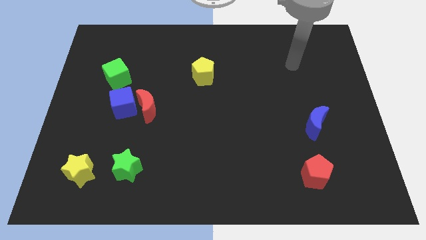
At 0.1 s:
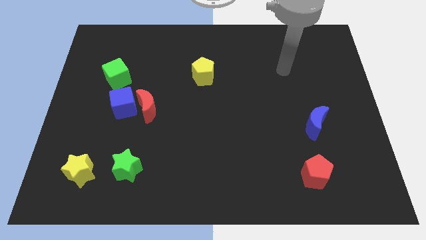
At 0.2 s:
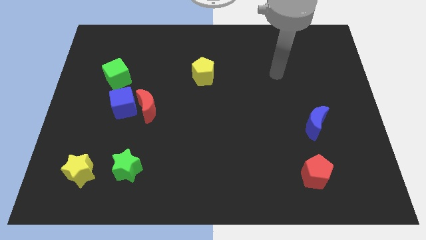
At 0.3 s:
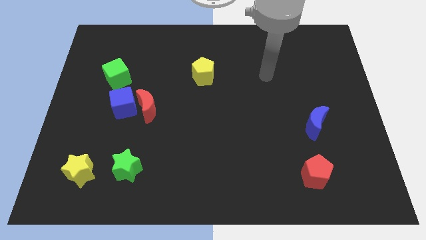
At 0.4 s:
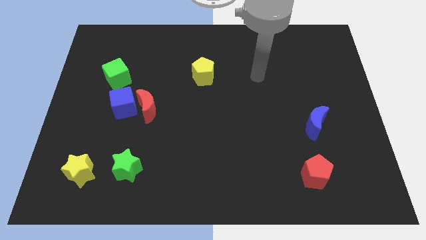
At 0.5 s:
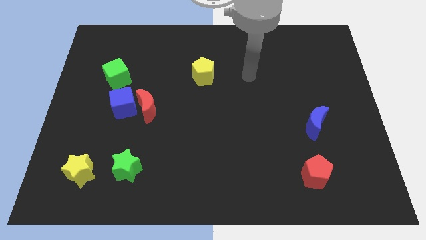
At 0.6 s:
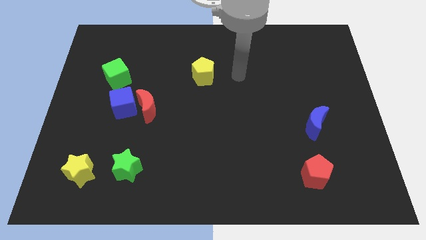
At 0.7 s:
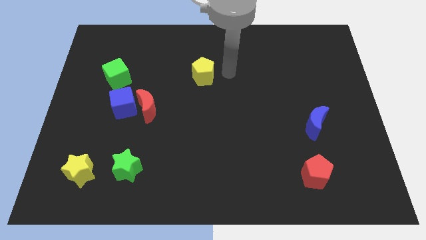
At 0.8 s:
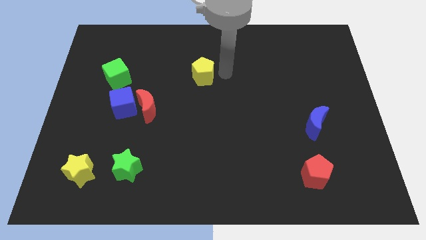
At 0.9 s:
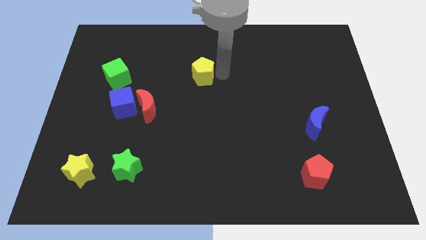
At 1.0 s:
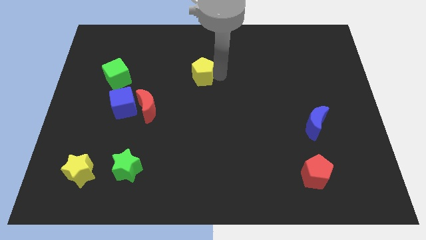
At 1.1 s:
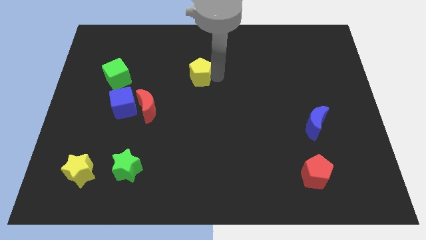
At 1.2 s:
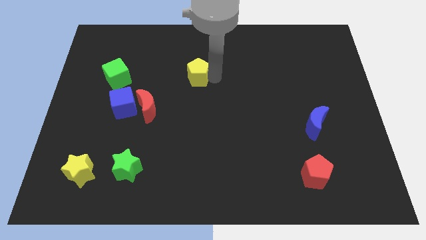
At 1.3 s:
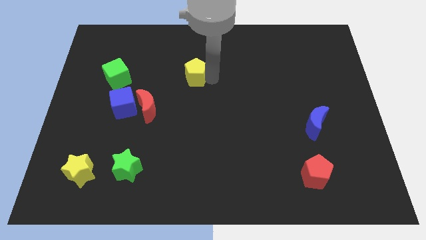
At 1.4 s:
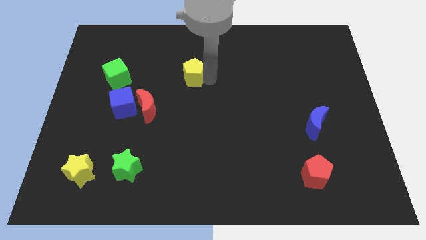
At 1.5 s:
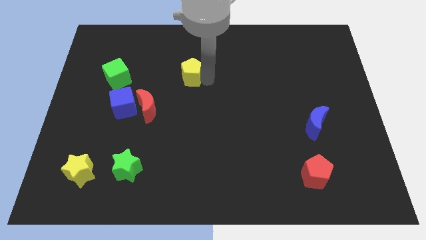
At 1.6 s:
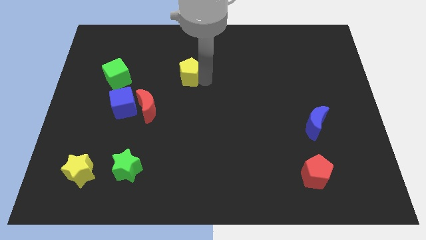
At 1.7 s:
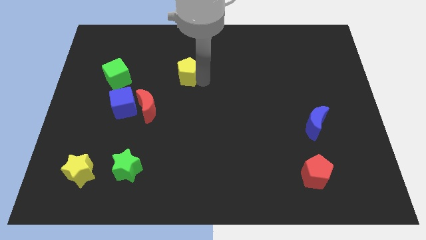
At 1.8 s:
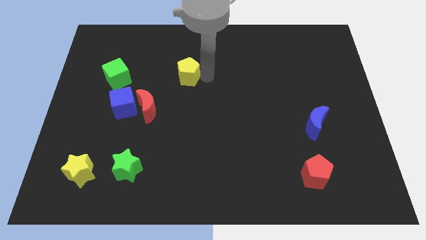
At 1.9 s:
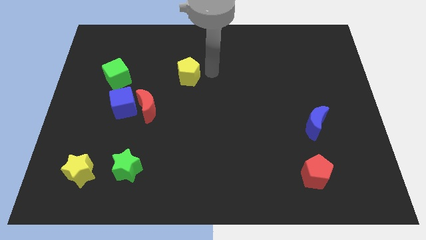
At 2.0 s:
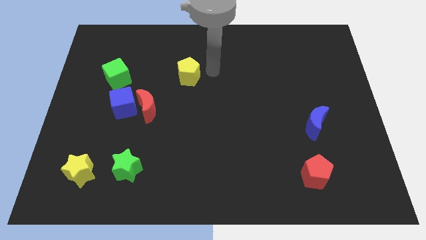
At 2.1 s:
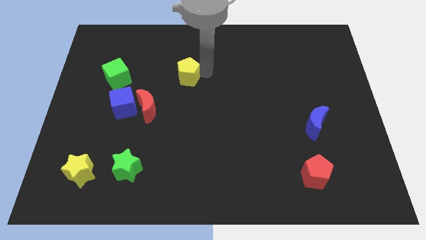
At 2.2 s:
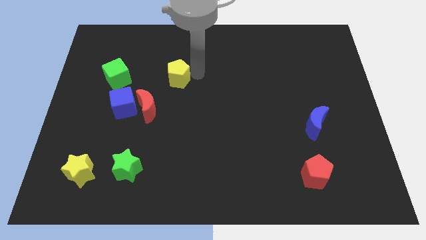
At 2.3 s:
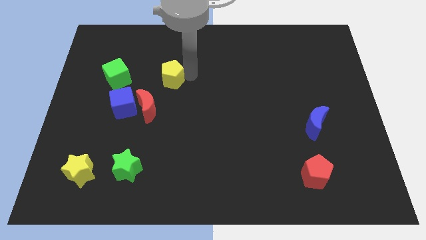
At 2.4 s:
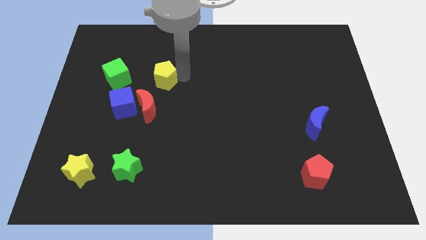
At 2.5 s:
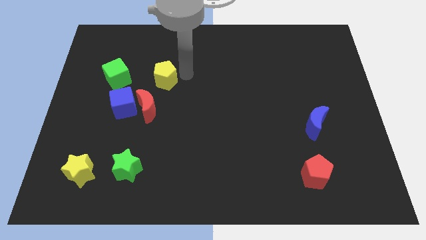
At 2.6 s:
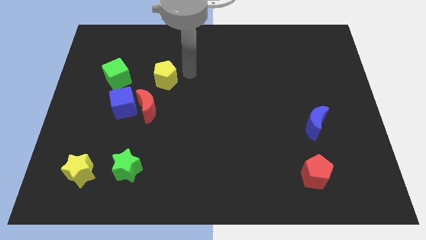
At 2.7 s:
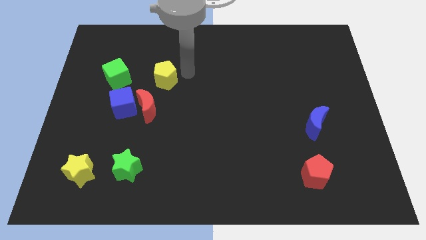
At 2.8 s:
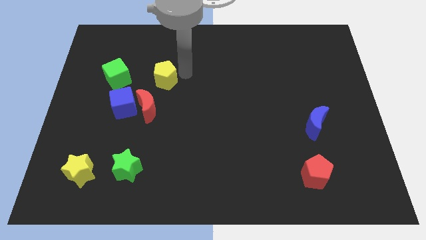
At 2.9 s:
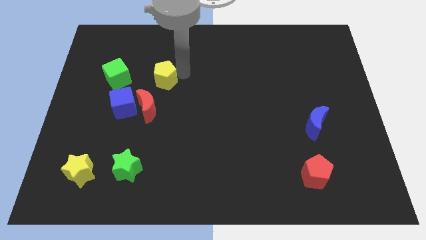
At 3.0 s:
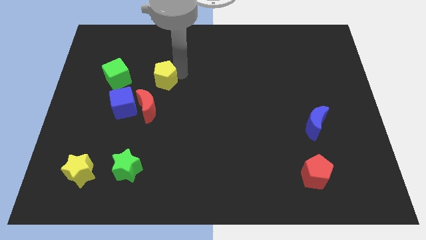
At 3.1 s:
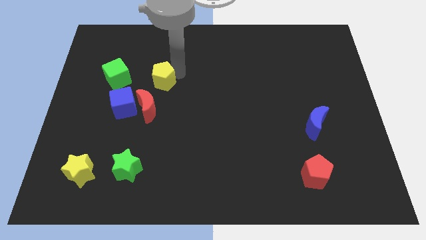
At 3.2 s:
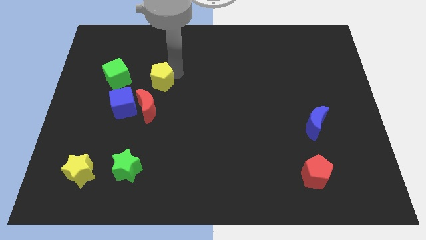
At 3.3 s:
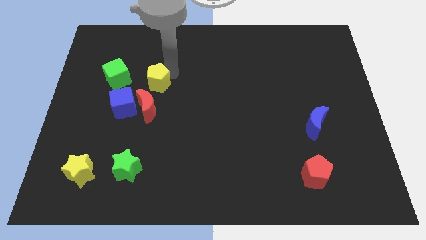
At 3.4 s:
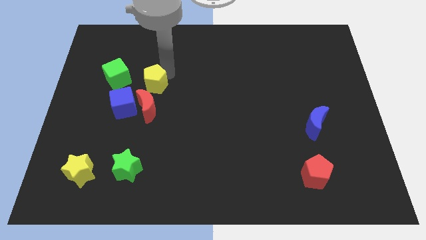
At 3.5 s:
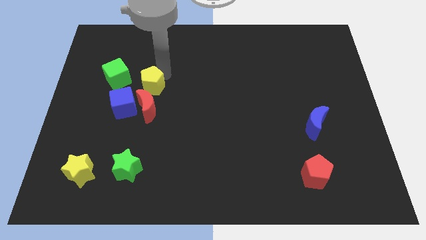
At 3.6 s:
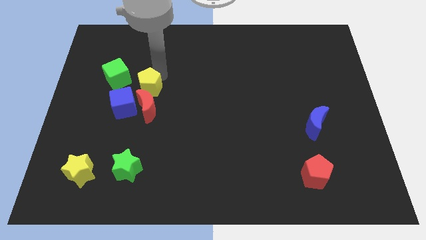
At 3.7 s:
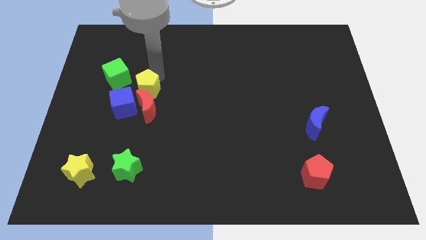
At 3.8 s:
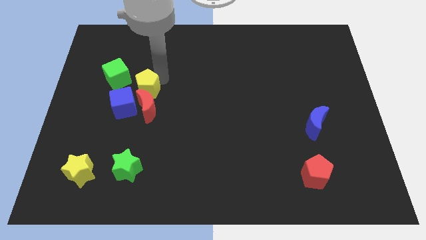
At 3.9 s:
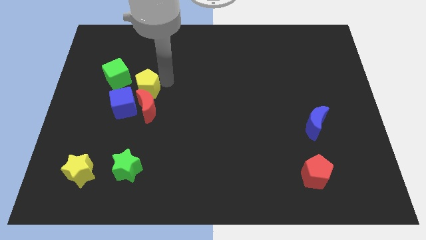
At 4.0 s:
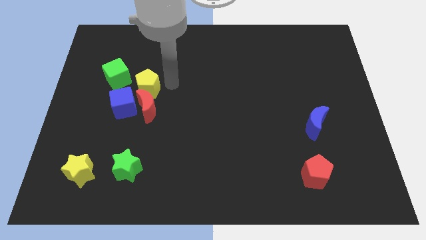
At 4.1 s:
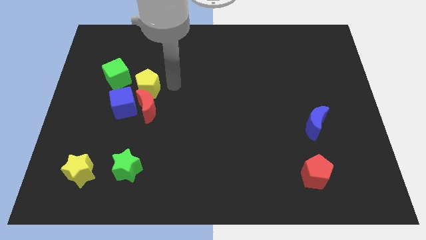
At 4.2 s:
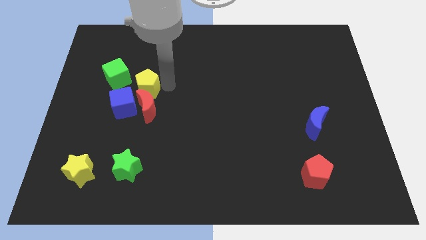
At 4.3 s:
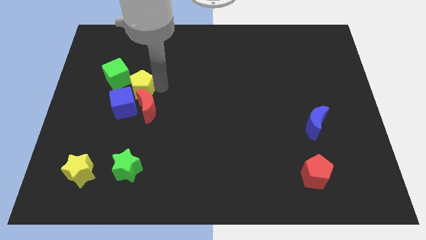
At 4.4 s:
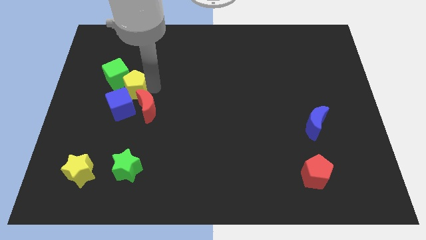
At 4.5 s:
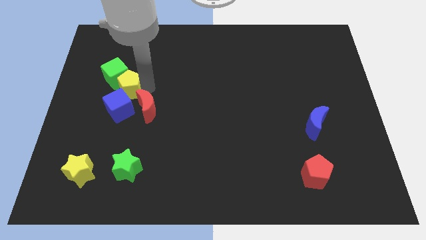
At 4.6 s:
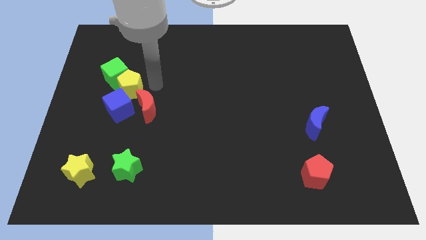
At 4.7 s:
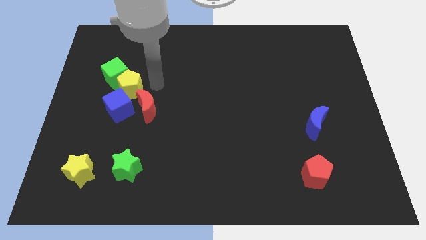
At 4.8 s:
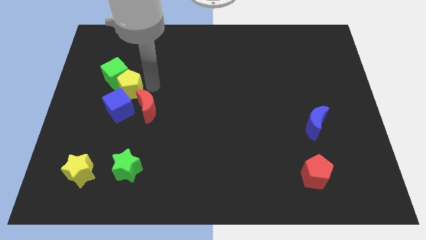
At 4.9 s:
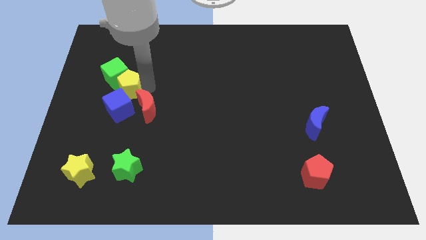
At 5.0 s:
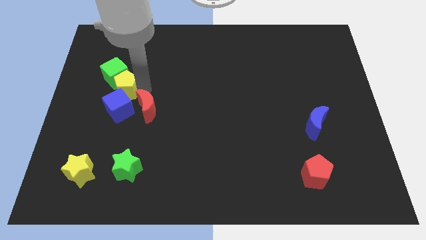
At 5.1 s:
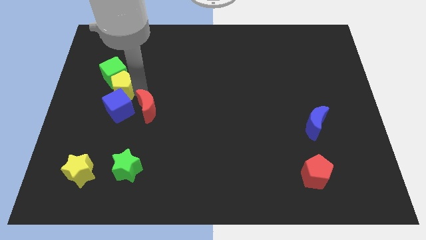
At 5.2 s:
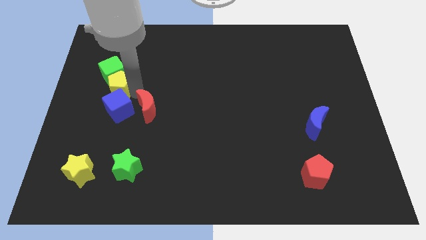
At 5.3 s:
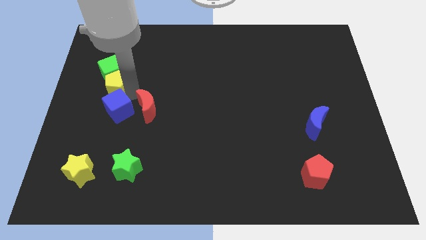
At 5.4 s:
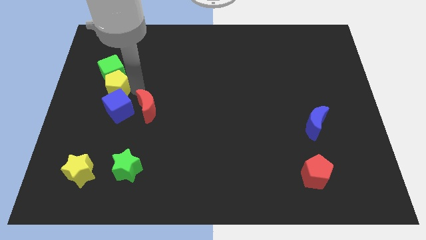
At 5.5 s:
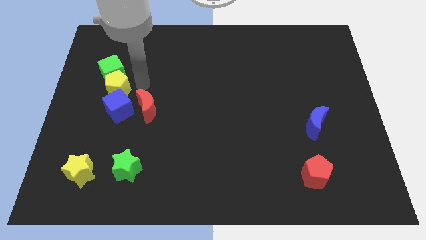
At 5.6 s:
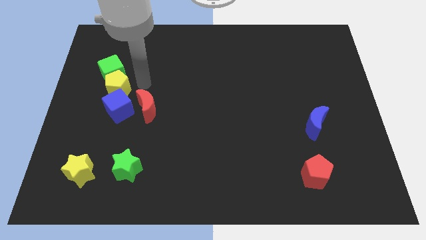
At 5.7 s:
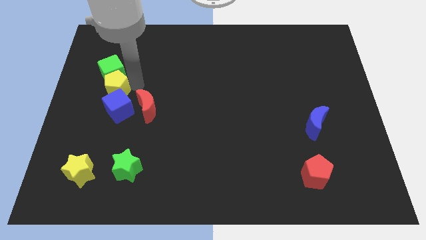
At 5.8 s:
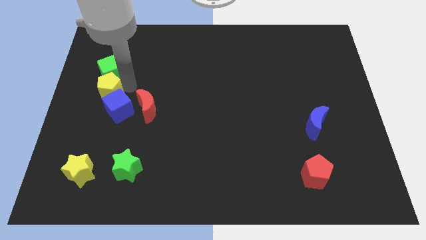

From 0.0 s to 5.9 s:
push the yellow pentagon to the left side

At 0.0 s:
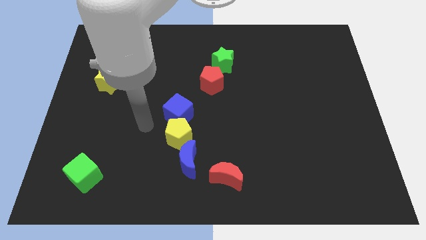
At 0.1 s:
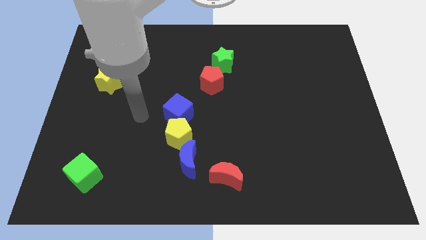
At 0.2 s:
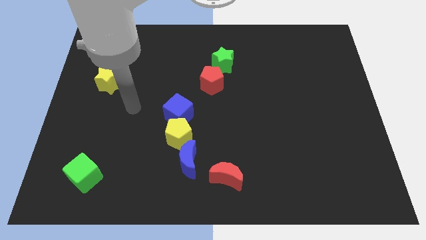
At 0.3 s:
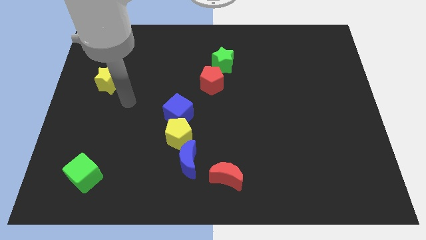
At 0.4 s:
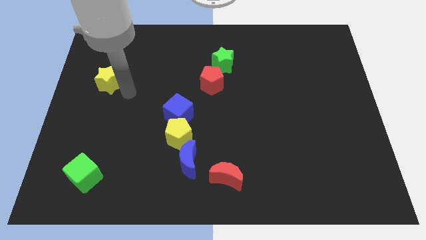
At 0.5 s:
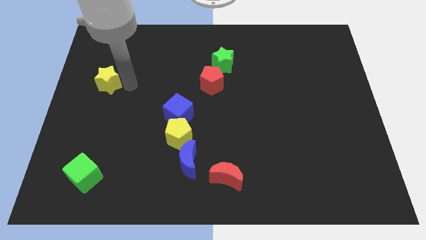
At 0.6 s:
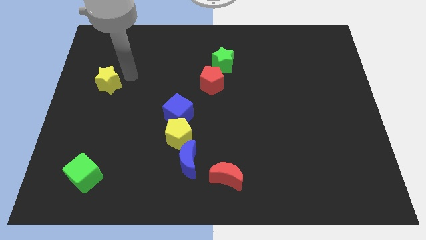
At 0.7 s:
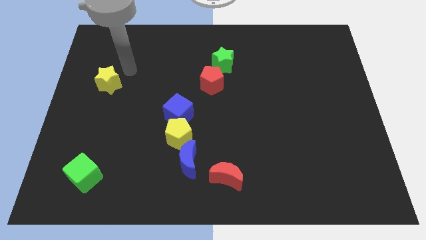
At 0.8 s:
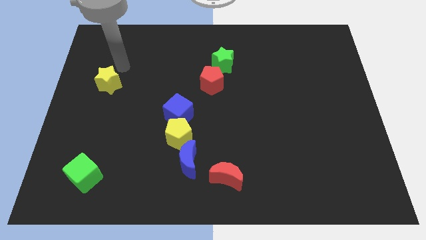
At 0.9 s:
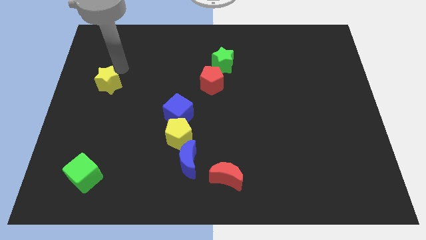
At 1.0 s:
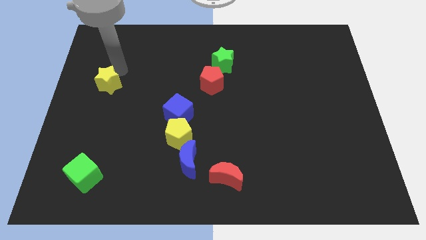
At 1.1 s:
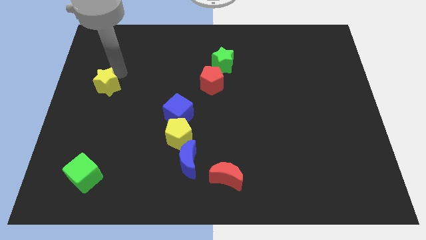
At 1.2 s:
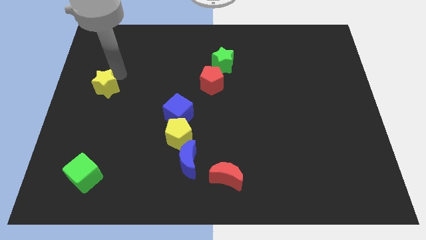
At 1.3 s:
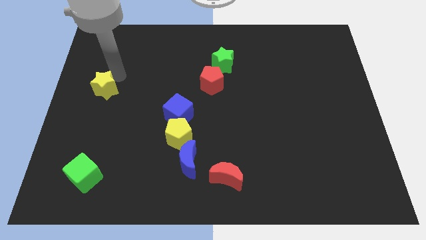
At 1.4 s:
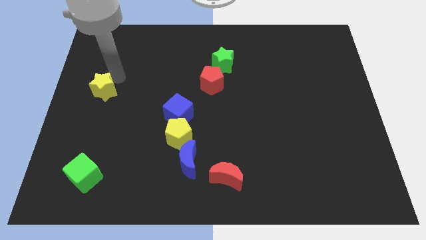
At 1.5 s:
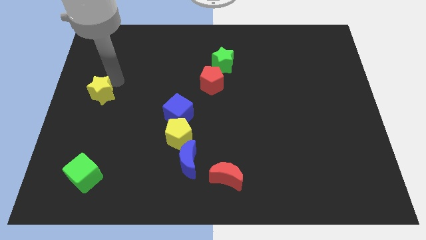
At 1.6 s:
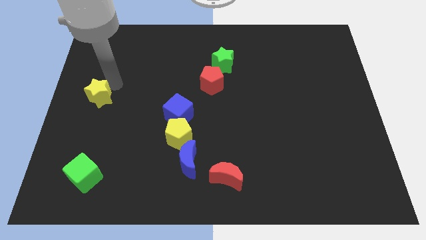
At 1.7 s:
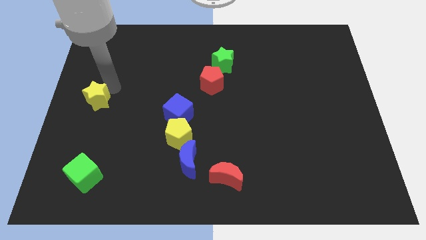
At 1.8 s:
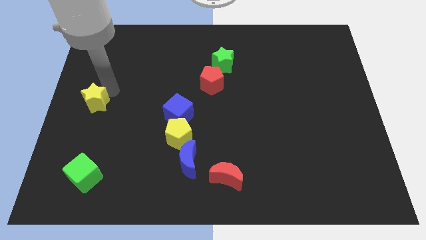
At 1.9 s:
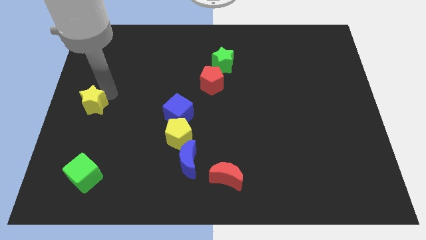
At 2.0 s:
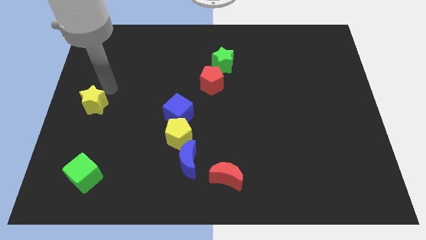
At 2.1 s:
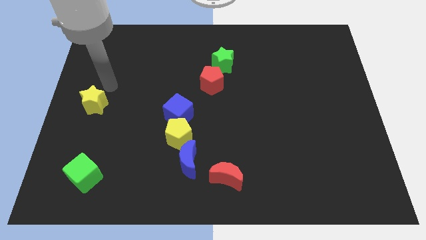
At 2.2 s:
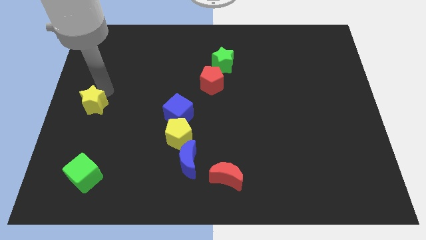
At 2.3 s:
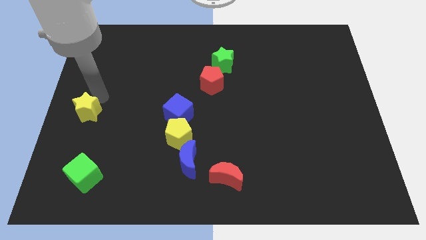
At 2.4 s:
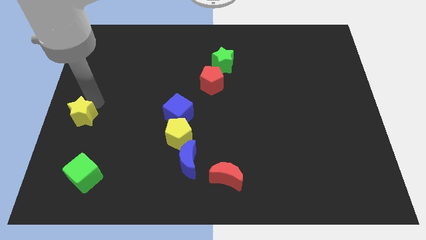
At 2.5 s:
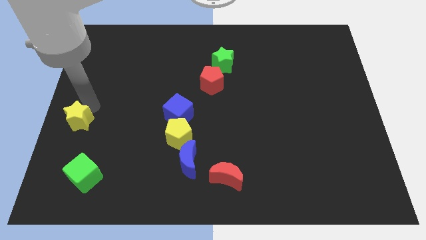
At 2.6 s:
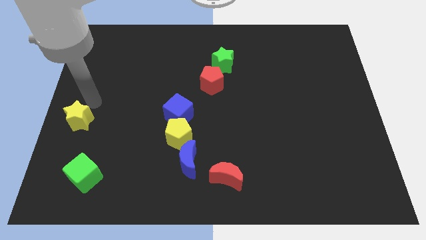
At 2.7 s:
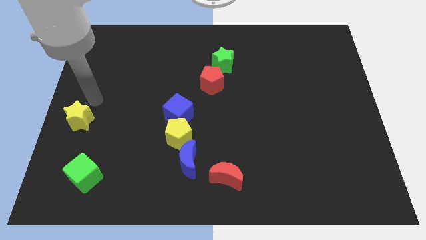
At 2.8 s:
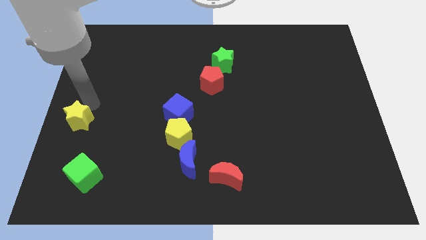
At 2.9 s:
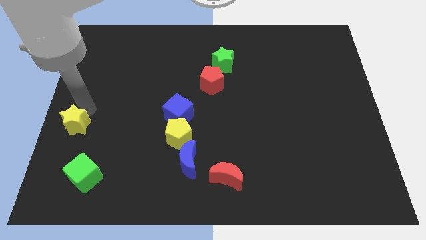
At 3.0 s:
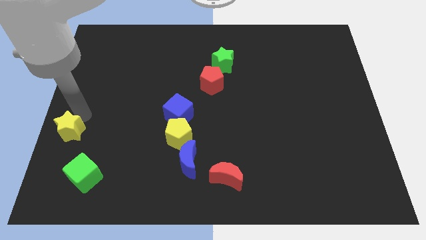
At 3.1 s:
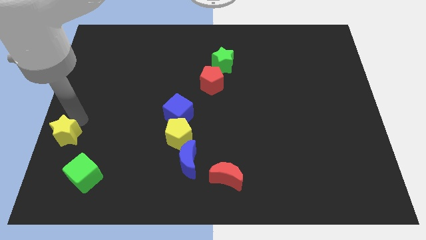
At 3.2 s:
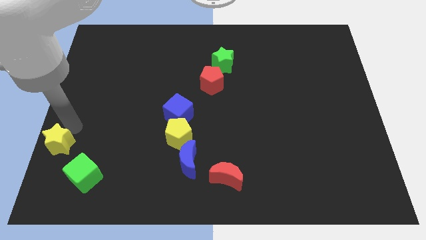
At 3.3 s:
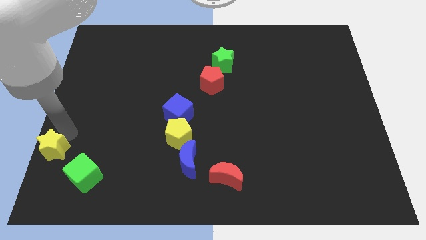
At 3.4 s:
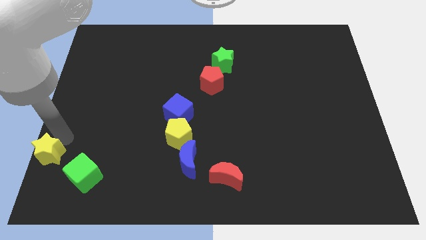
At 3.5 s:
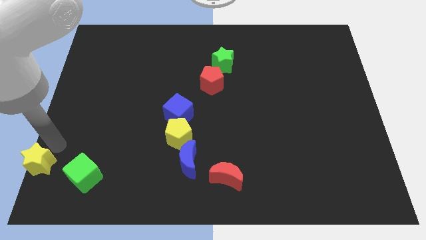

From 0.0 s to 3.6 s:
put the yellow star to the bottom left corner
